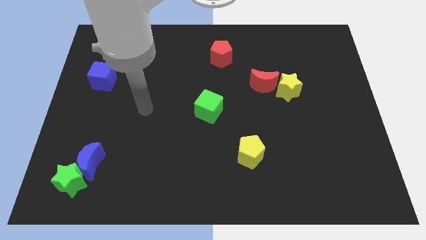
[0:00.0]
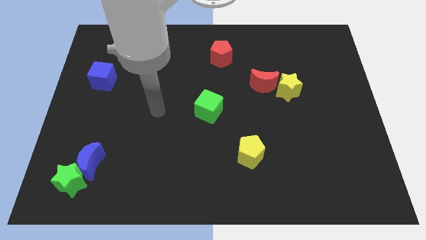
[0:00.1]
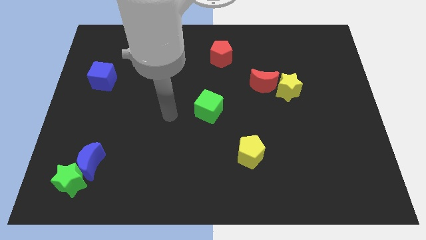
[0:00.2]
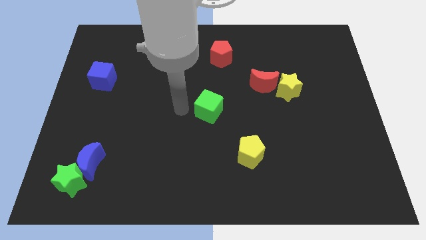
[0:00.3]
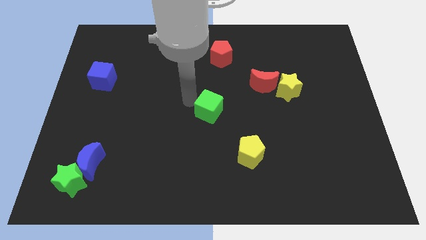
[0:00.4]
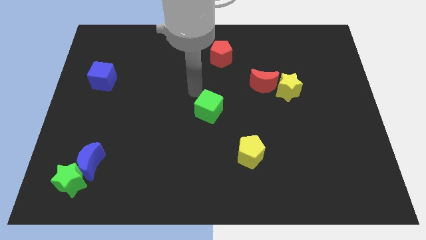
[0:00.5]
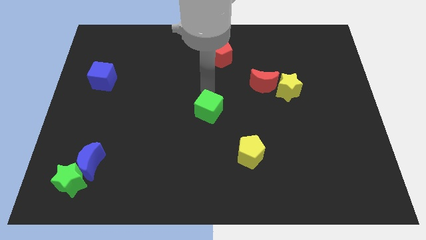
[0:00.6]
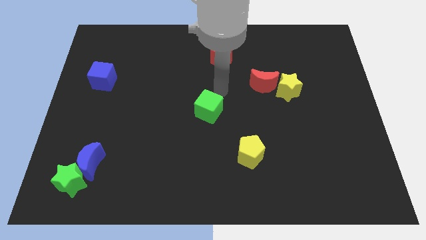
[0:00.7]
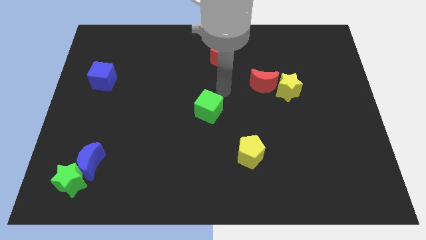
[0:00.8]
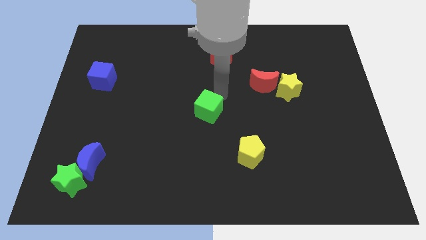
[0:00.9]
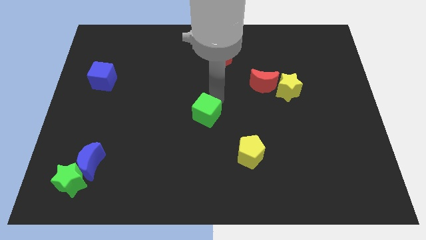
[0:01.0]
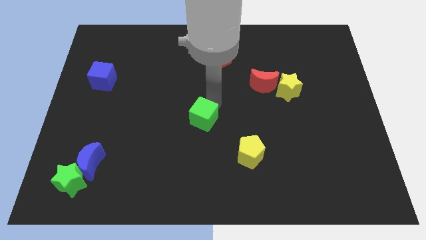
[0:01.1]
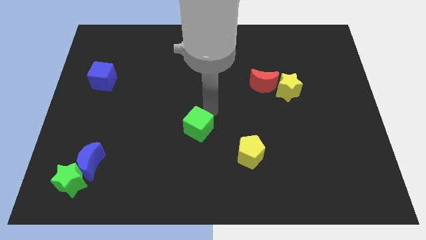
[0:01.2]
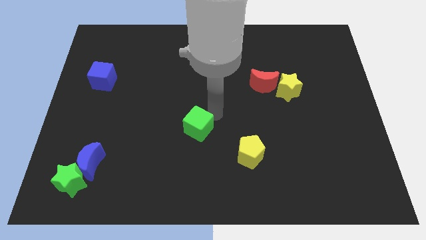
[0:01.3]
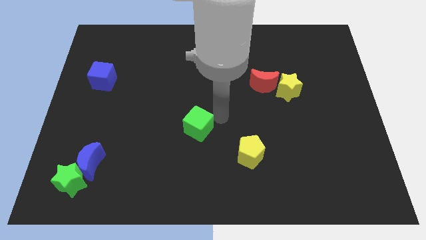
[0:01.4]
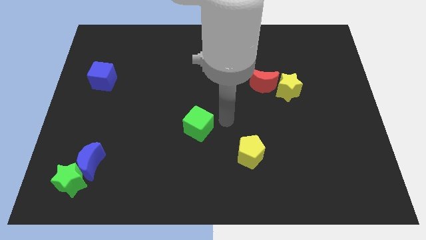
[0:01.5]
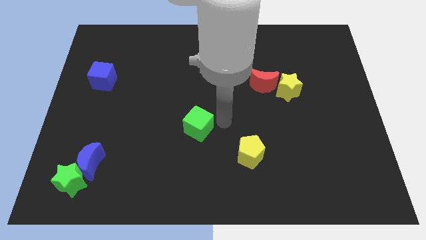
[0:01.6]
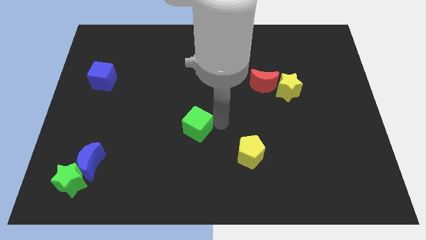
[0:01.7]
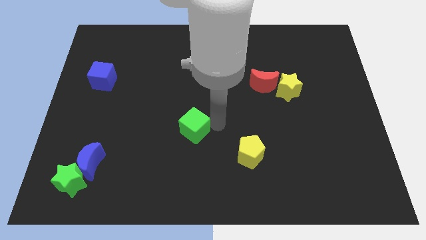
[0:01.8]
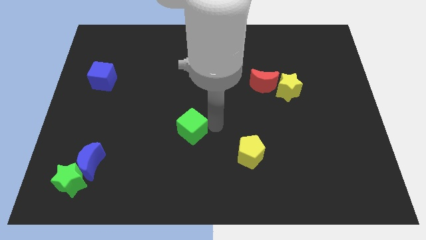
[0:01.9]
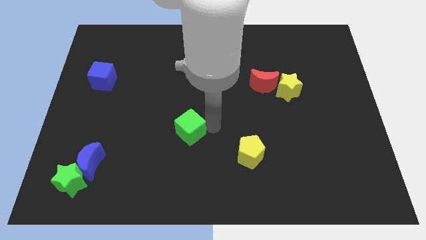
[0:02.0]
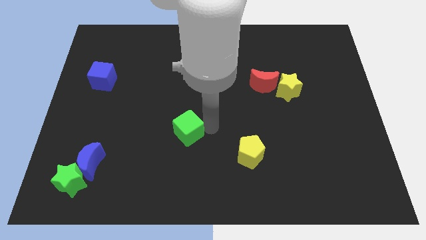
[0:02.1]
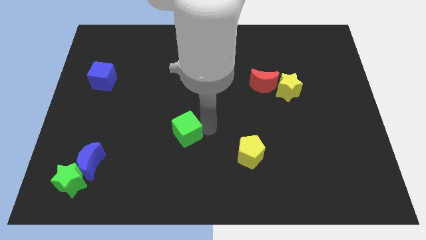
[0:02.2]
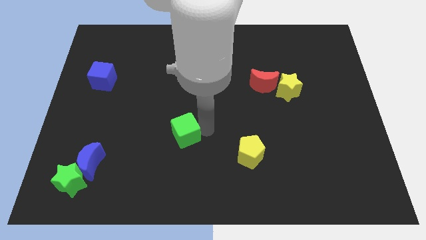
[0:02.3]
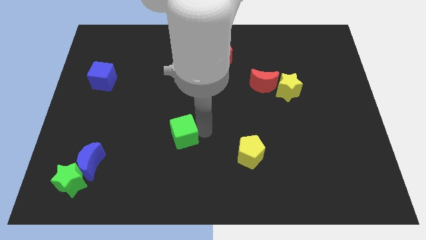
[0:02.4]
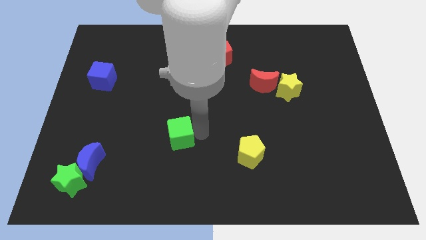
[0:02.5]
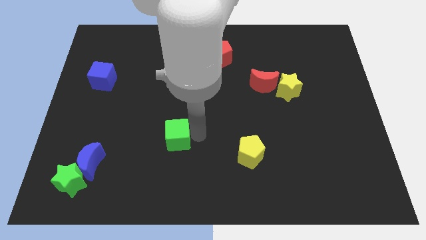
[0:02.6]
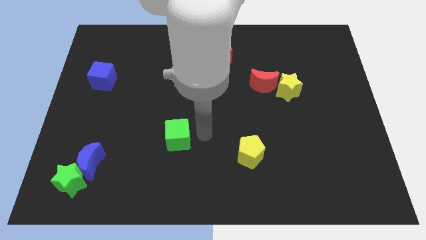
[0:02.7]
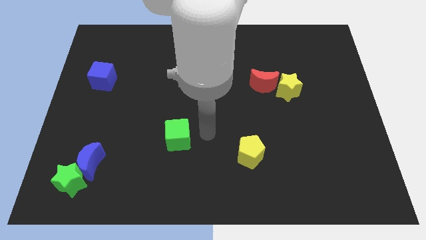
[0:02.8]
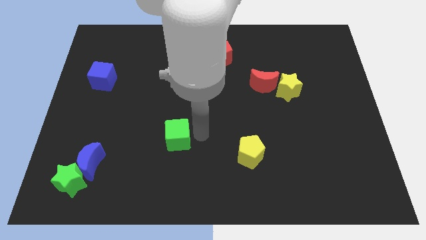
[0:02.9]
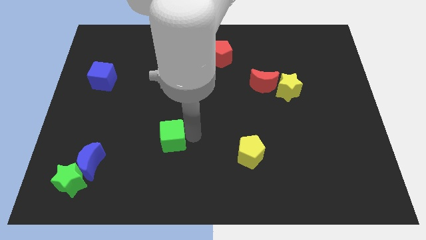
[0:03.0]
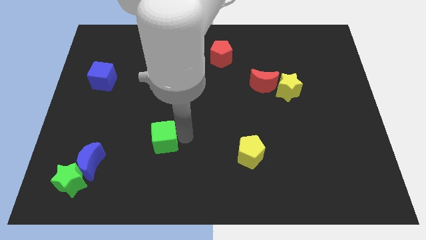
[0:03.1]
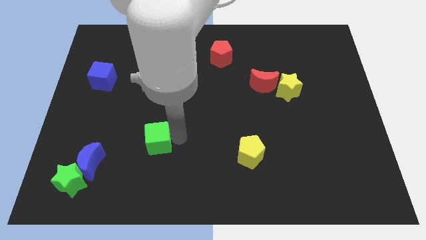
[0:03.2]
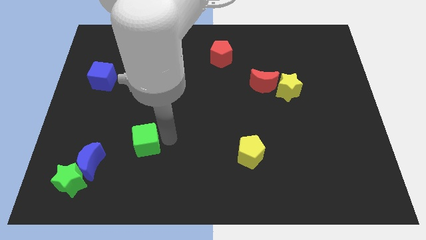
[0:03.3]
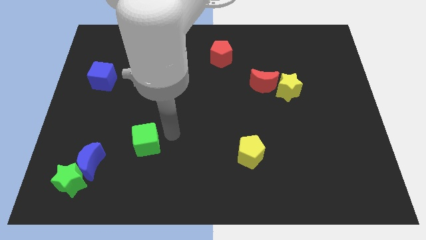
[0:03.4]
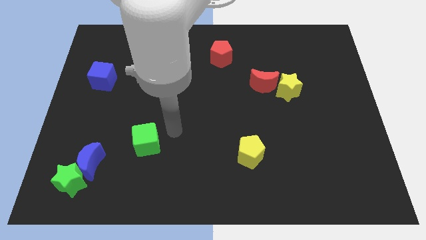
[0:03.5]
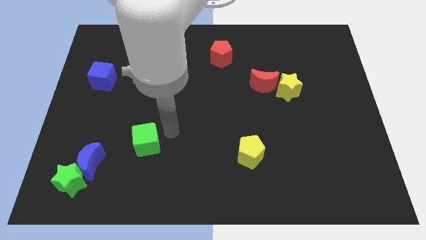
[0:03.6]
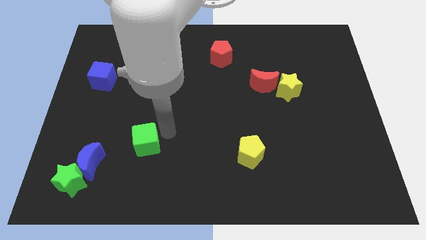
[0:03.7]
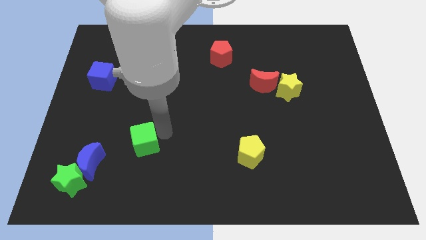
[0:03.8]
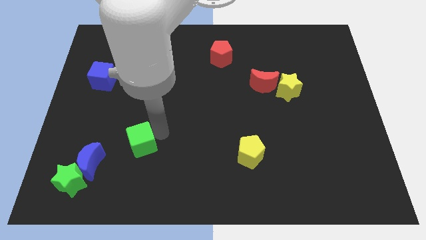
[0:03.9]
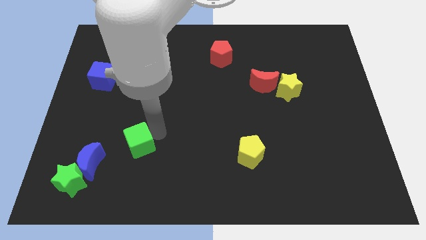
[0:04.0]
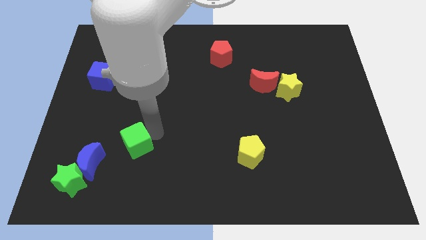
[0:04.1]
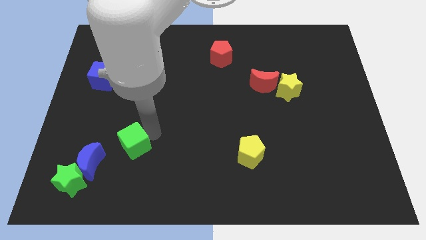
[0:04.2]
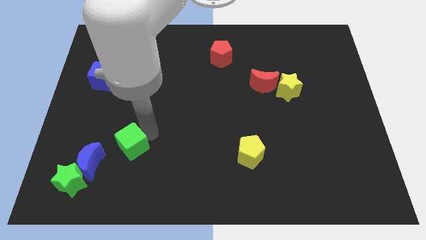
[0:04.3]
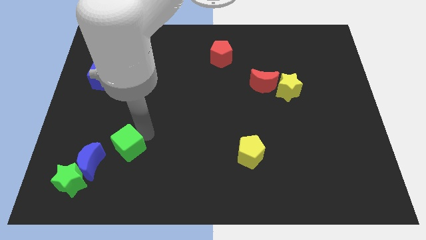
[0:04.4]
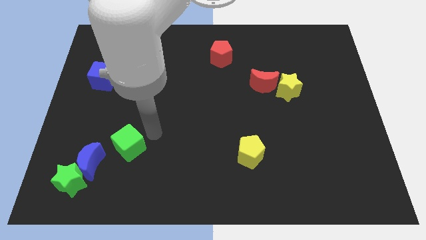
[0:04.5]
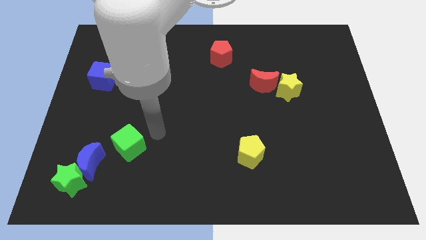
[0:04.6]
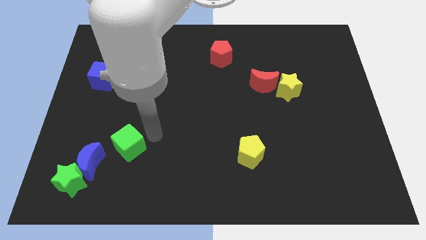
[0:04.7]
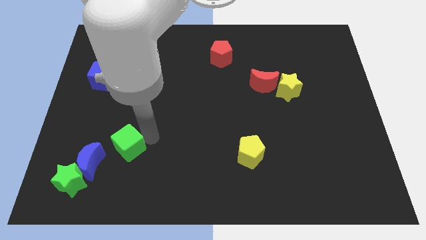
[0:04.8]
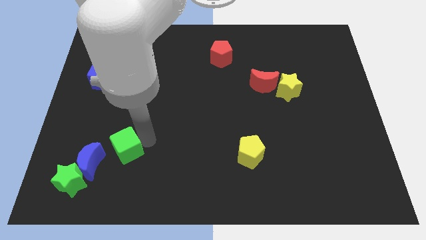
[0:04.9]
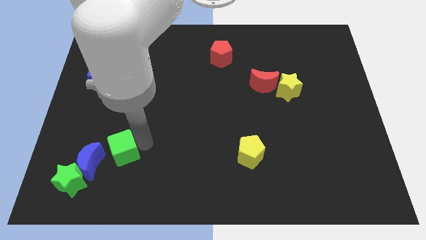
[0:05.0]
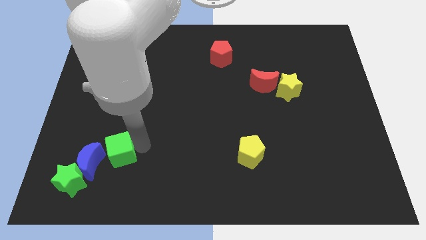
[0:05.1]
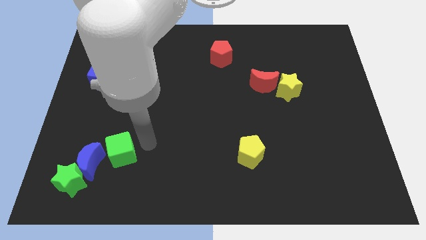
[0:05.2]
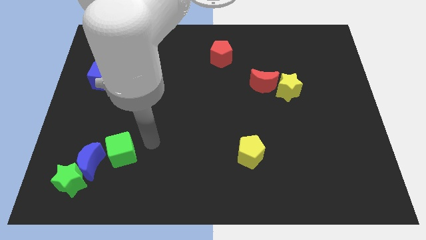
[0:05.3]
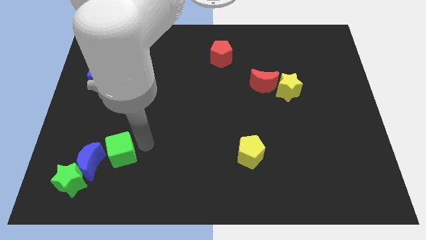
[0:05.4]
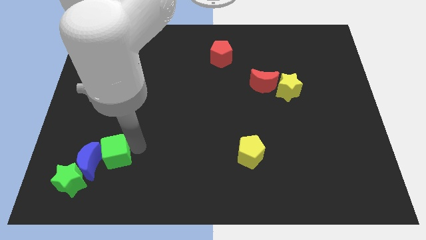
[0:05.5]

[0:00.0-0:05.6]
put the green cube next to the blue moon

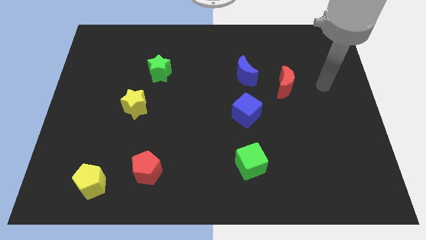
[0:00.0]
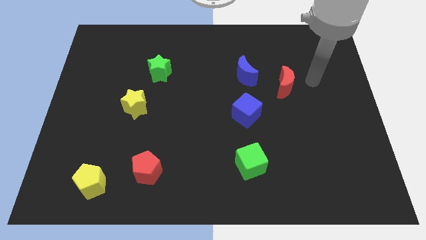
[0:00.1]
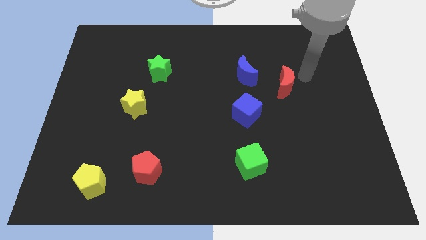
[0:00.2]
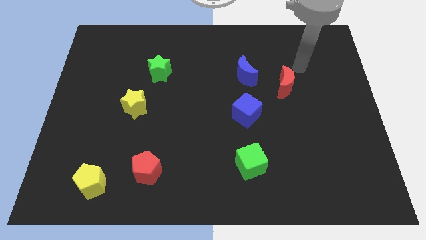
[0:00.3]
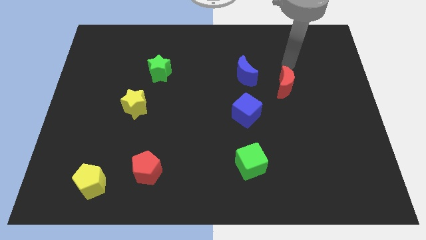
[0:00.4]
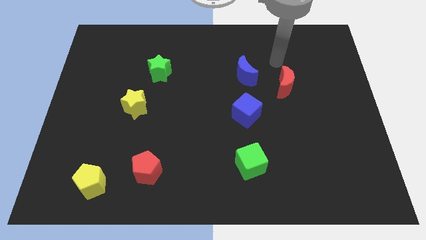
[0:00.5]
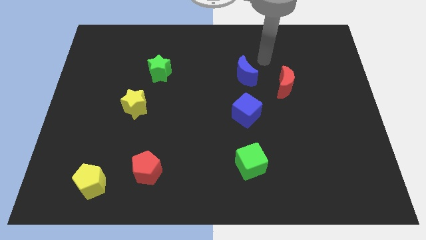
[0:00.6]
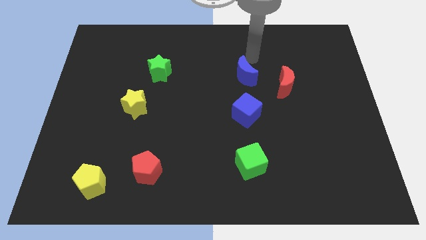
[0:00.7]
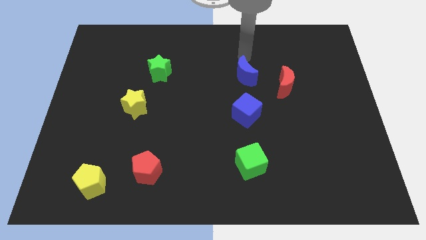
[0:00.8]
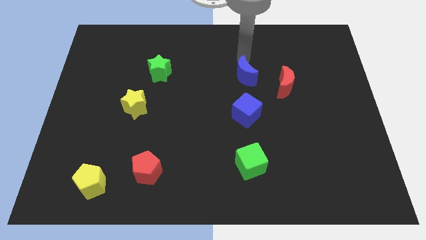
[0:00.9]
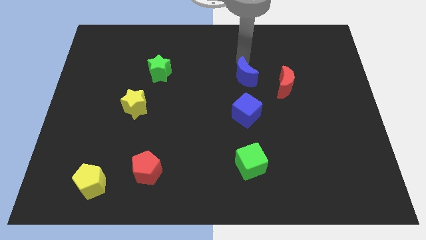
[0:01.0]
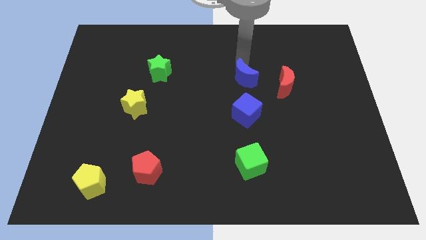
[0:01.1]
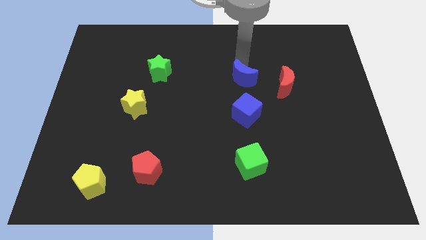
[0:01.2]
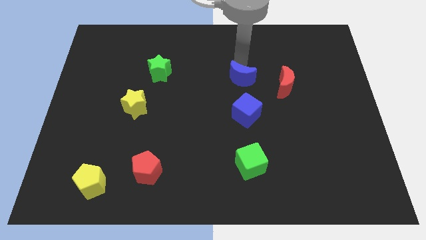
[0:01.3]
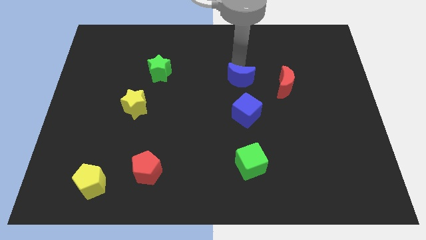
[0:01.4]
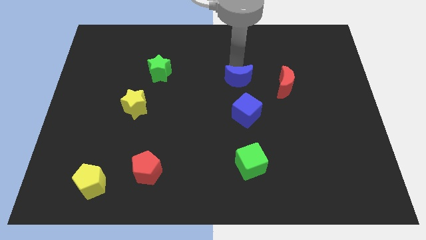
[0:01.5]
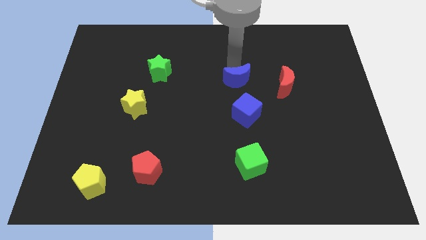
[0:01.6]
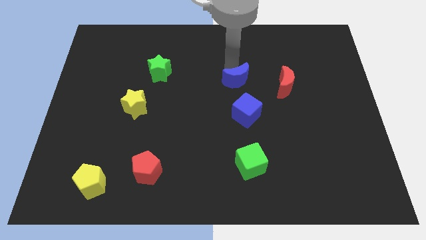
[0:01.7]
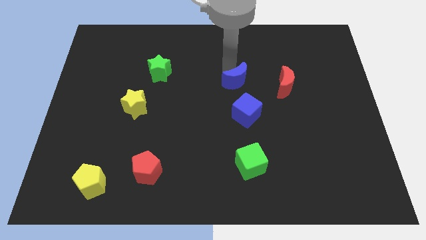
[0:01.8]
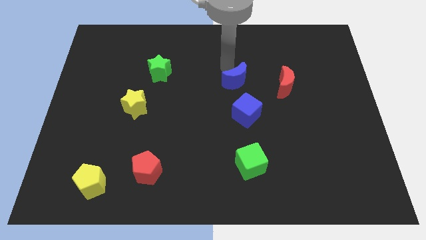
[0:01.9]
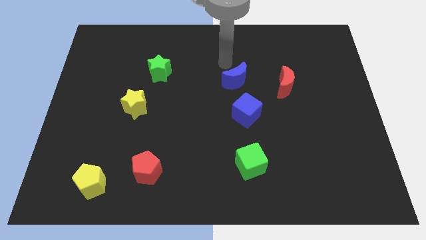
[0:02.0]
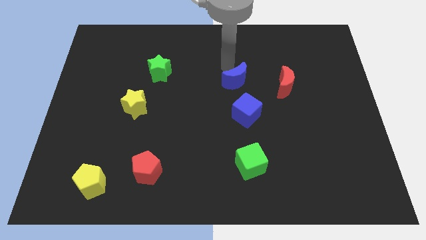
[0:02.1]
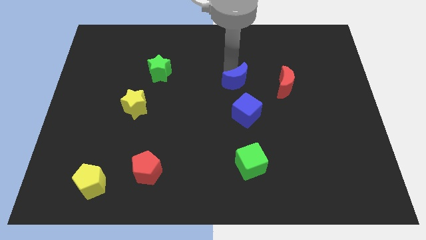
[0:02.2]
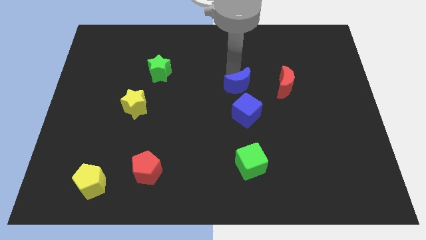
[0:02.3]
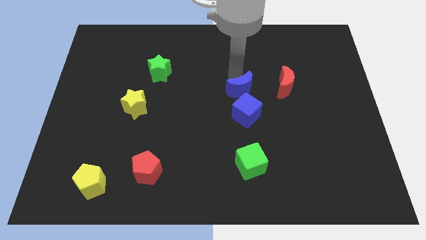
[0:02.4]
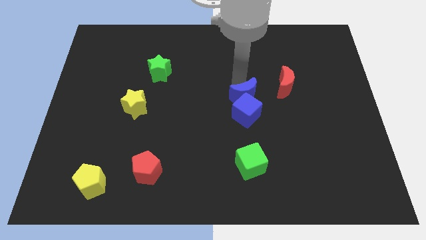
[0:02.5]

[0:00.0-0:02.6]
put the blue moon close to the blue cube
